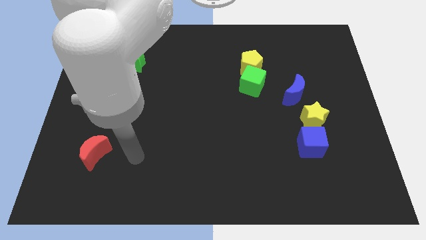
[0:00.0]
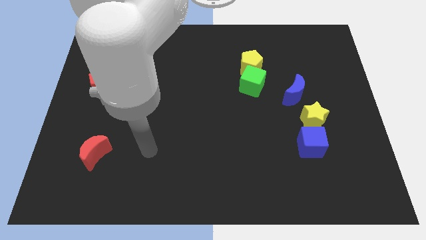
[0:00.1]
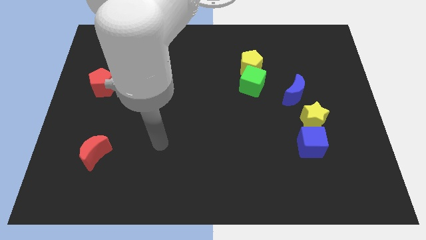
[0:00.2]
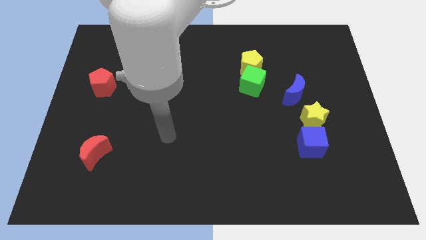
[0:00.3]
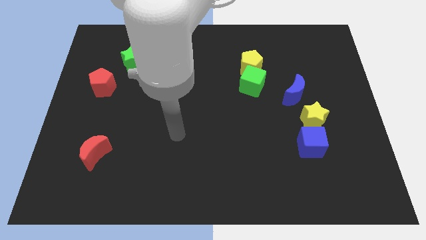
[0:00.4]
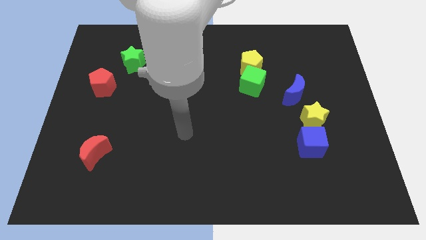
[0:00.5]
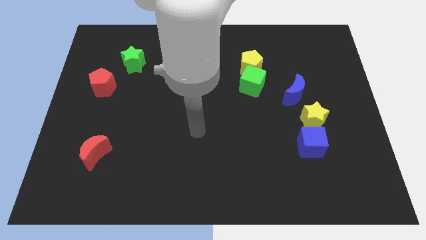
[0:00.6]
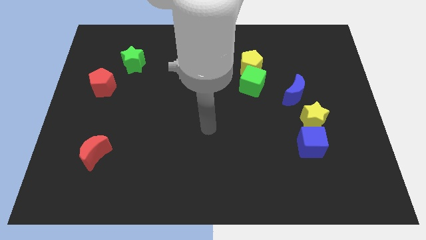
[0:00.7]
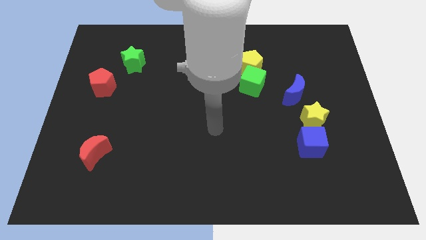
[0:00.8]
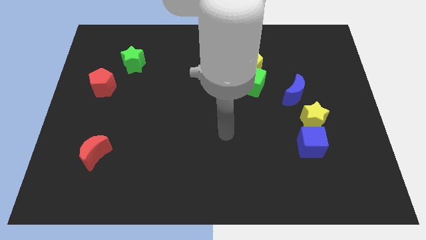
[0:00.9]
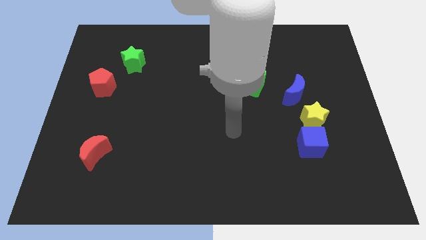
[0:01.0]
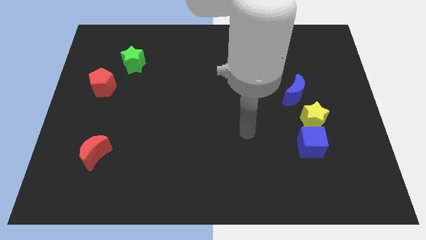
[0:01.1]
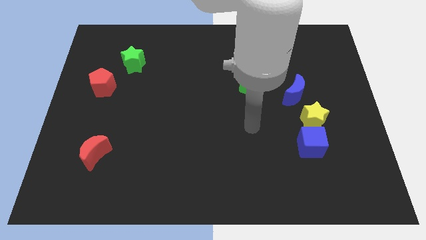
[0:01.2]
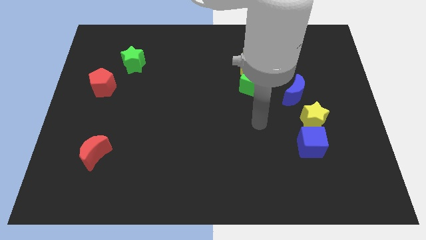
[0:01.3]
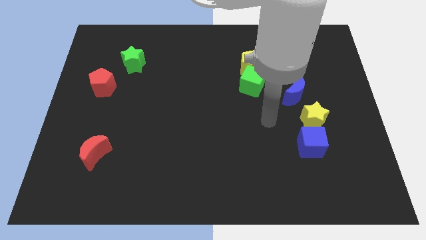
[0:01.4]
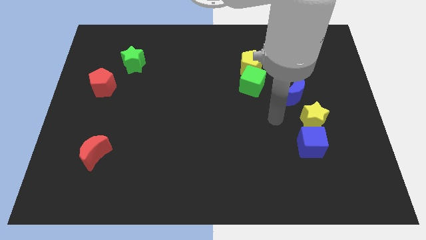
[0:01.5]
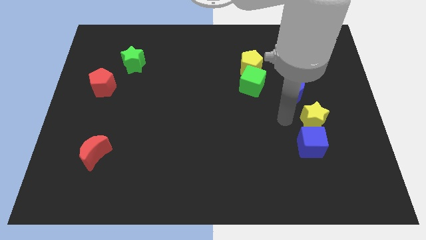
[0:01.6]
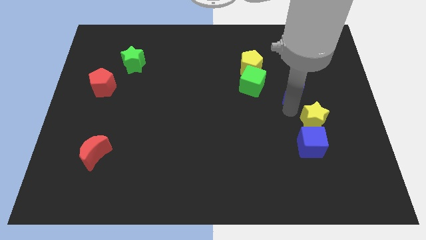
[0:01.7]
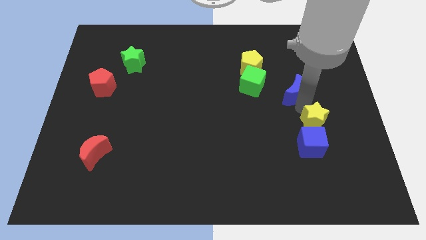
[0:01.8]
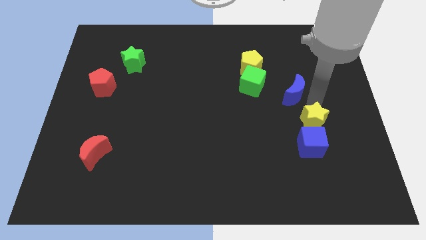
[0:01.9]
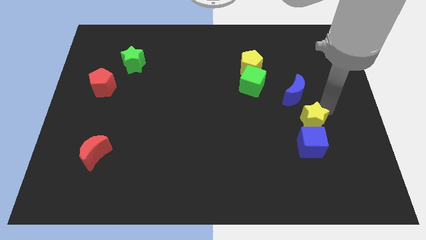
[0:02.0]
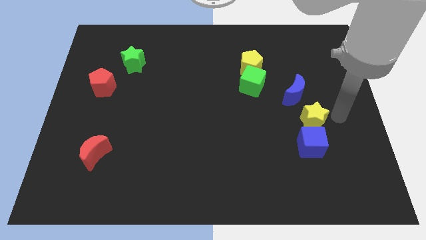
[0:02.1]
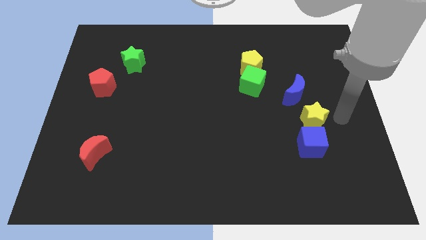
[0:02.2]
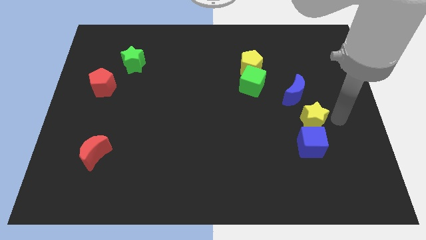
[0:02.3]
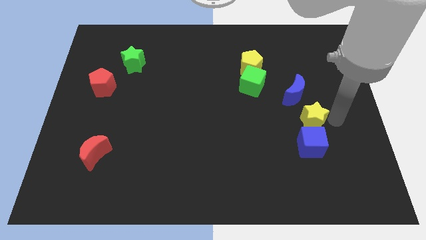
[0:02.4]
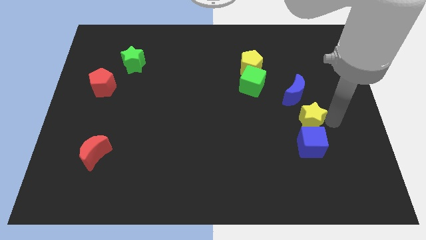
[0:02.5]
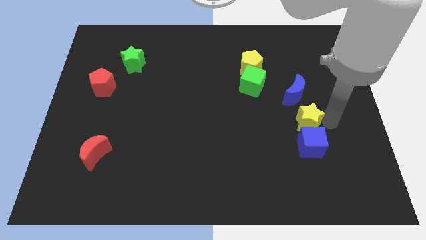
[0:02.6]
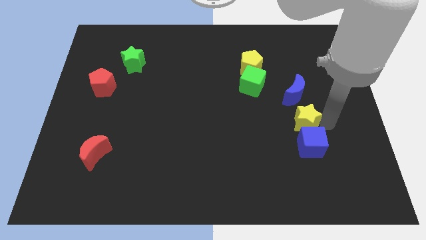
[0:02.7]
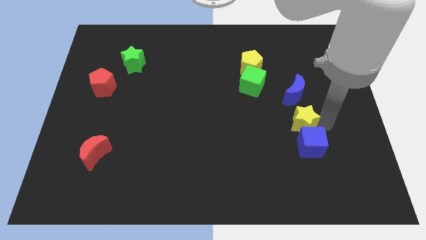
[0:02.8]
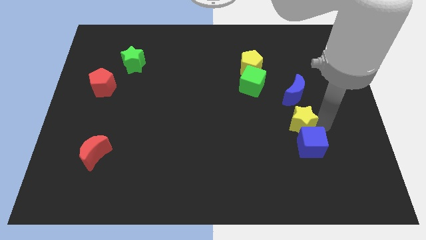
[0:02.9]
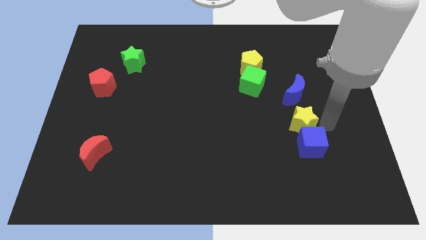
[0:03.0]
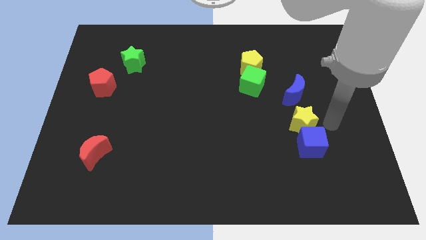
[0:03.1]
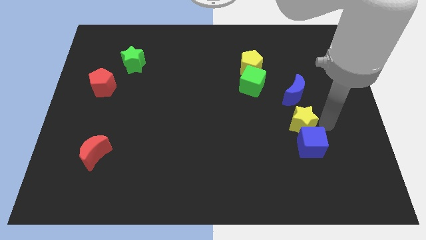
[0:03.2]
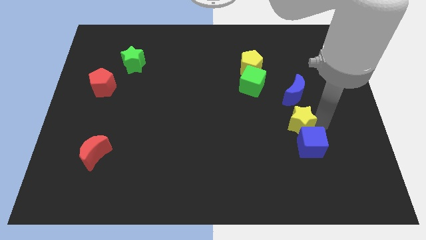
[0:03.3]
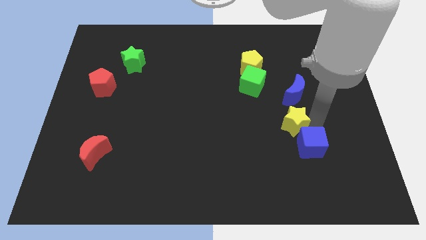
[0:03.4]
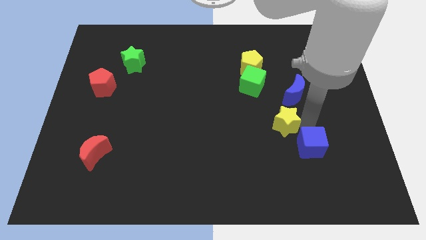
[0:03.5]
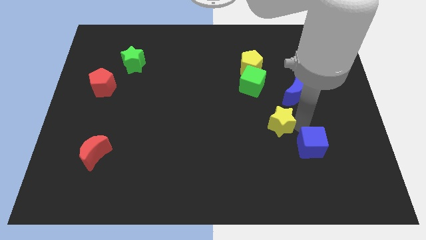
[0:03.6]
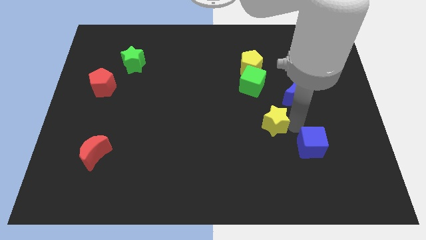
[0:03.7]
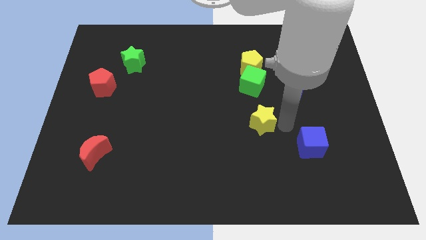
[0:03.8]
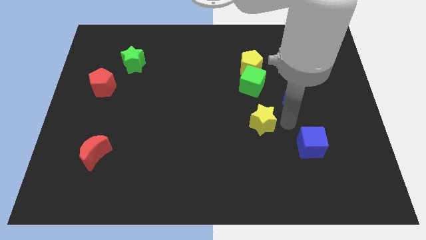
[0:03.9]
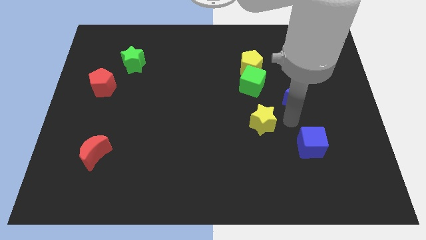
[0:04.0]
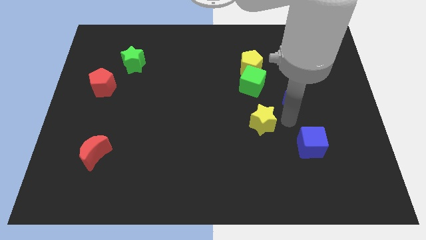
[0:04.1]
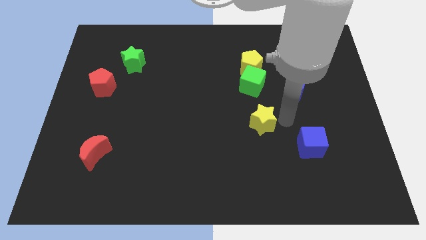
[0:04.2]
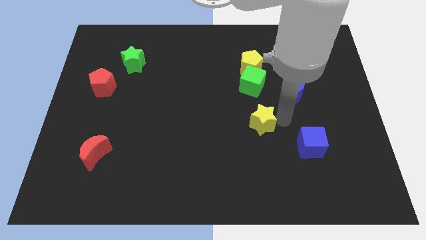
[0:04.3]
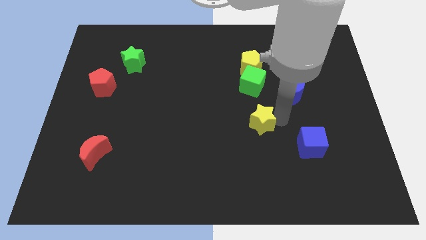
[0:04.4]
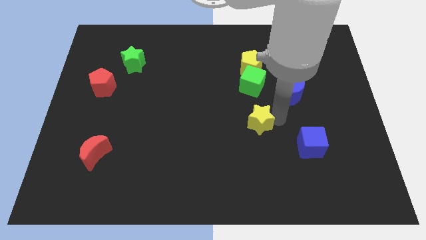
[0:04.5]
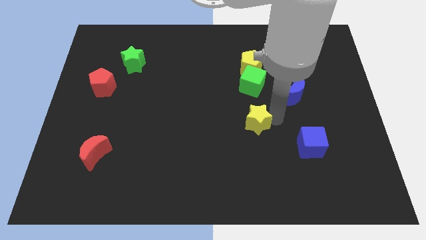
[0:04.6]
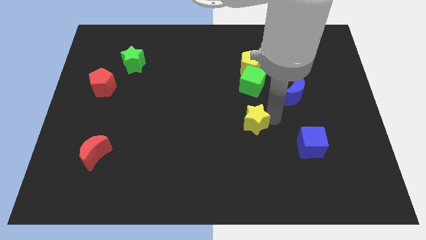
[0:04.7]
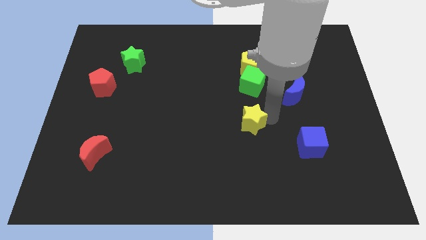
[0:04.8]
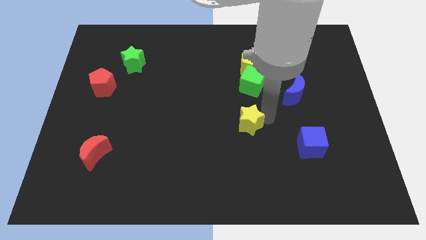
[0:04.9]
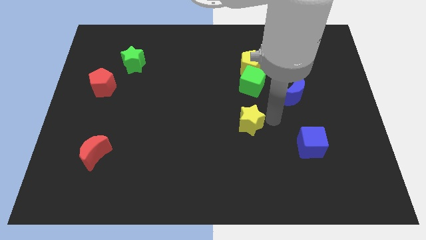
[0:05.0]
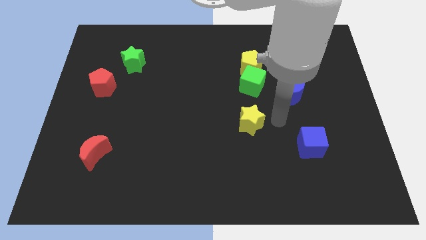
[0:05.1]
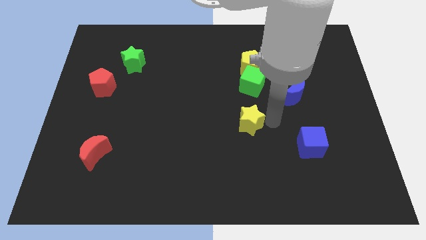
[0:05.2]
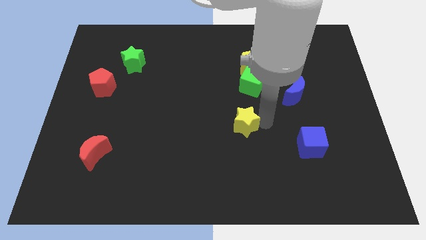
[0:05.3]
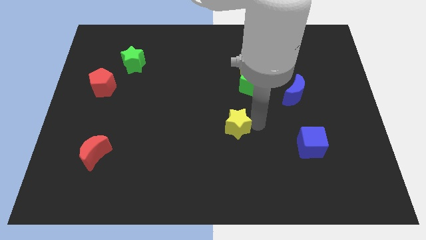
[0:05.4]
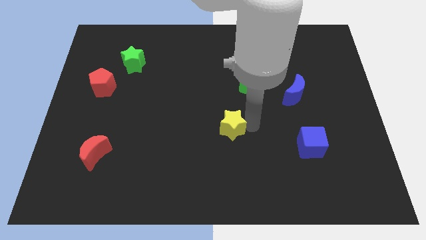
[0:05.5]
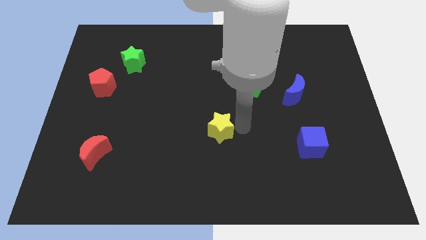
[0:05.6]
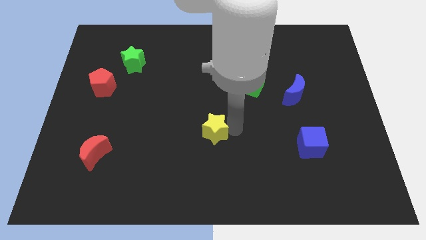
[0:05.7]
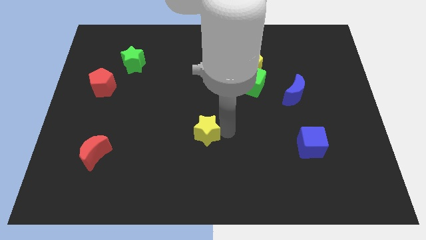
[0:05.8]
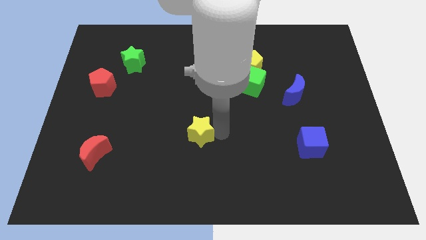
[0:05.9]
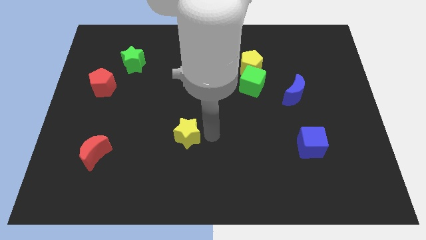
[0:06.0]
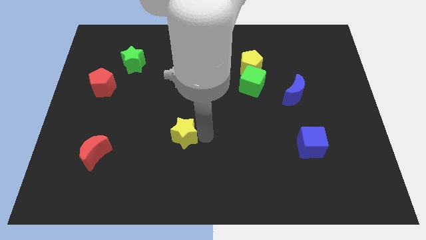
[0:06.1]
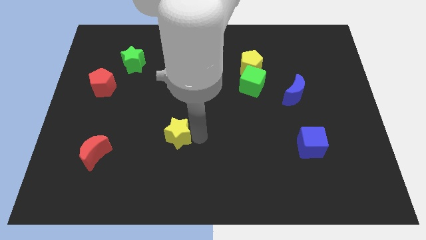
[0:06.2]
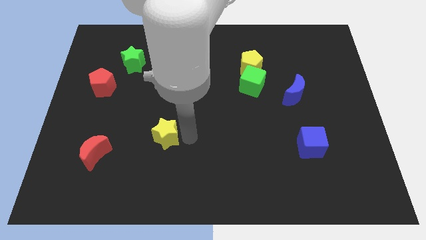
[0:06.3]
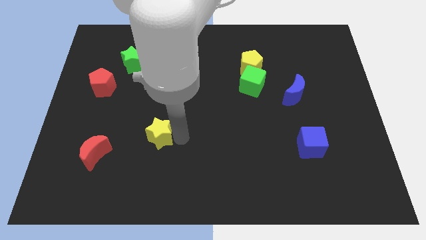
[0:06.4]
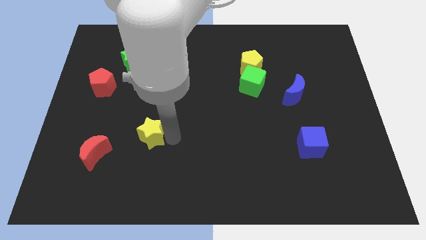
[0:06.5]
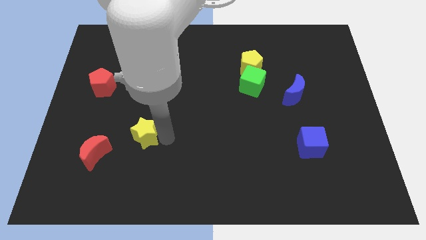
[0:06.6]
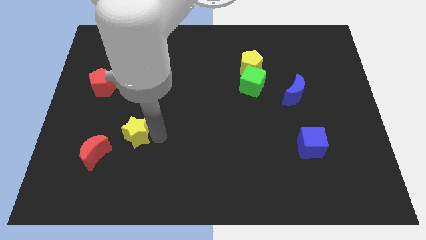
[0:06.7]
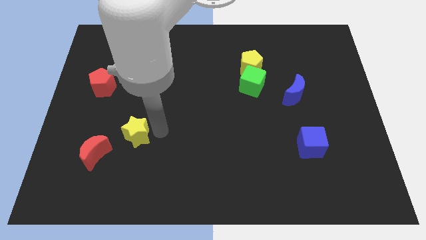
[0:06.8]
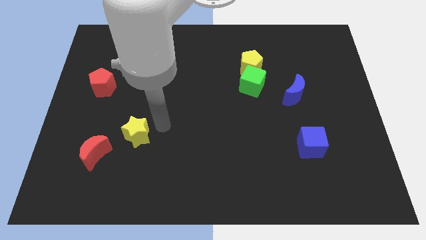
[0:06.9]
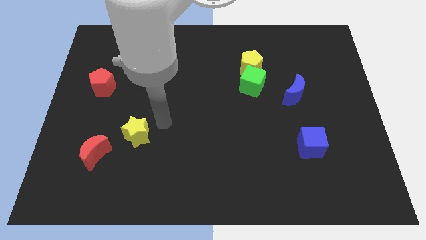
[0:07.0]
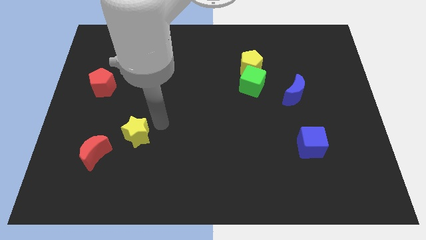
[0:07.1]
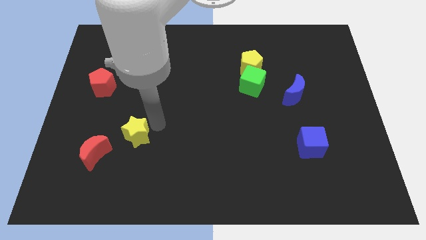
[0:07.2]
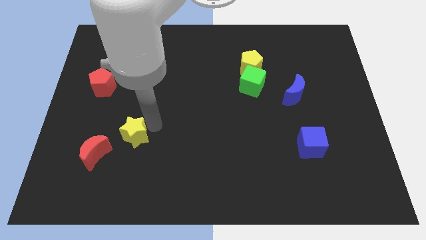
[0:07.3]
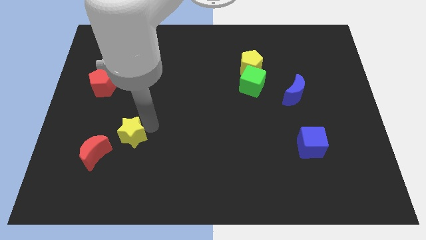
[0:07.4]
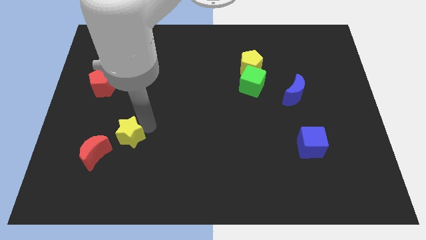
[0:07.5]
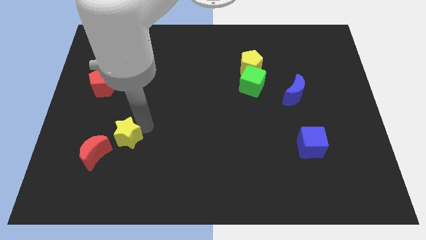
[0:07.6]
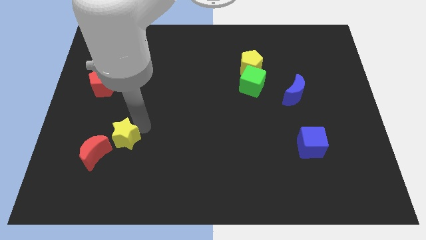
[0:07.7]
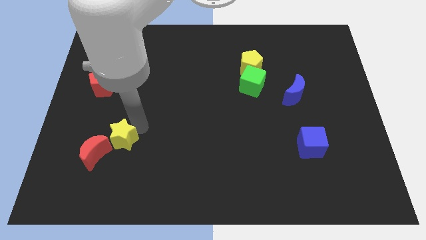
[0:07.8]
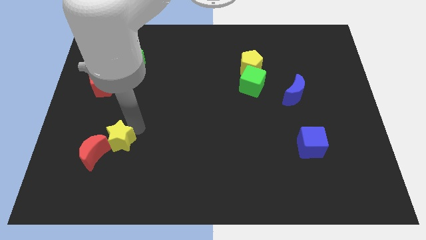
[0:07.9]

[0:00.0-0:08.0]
put the yellow star towards the red moon
